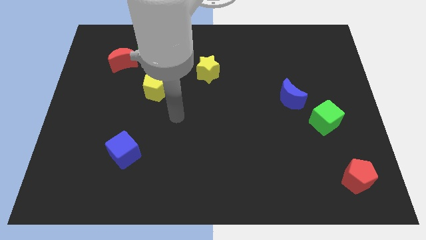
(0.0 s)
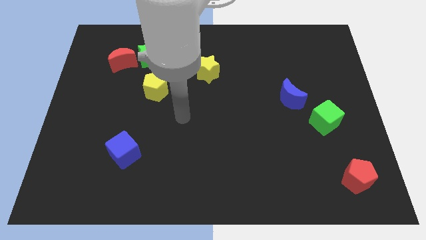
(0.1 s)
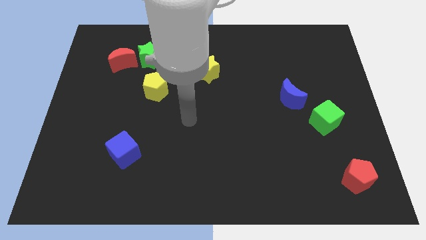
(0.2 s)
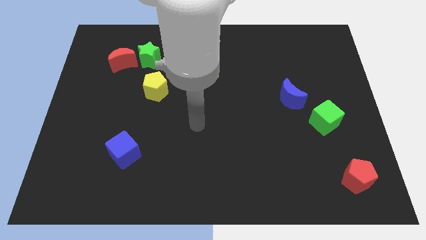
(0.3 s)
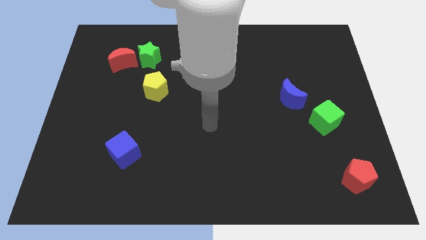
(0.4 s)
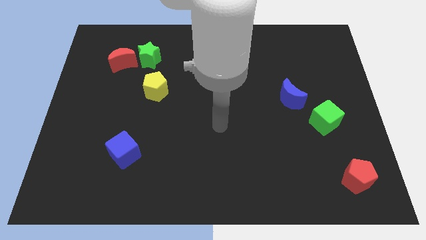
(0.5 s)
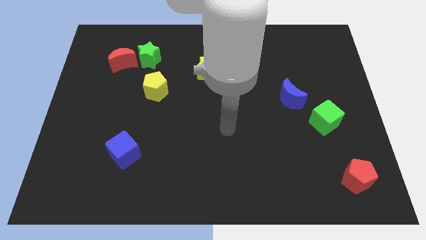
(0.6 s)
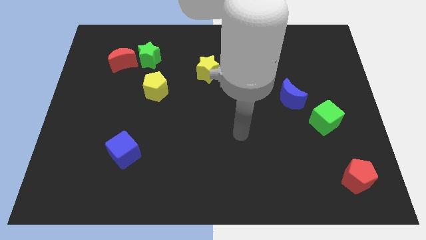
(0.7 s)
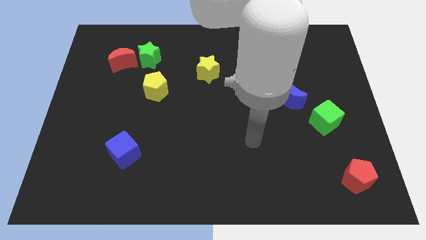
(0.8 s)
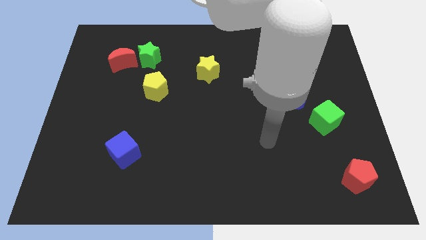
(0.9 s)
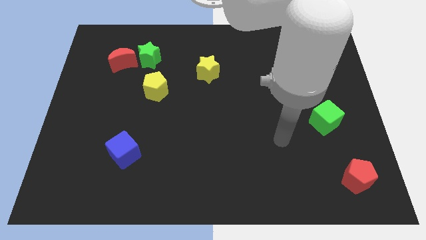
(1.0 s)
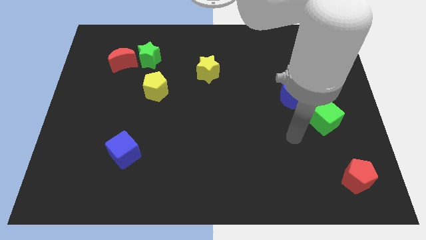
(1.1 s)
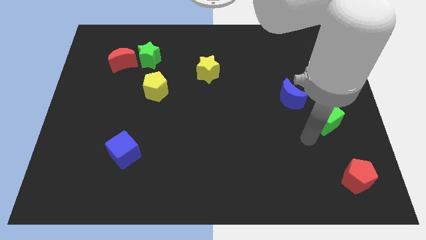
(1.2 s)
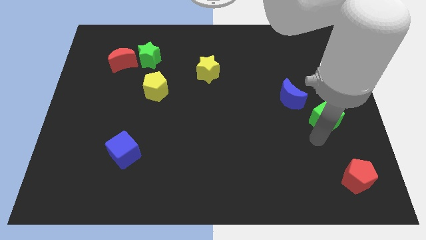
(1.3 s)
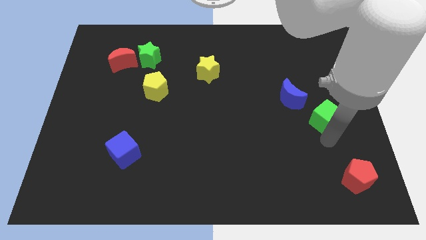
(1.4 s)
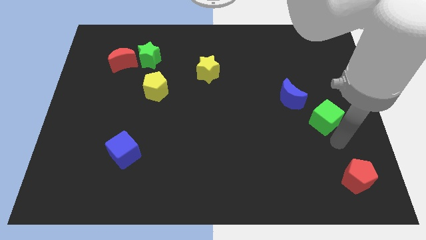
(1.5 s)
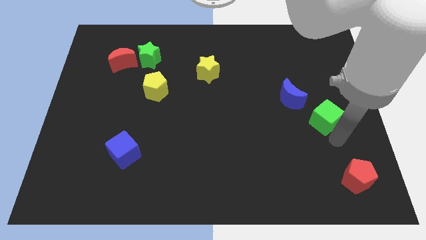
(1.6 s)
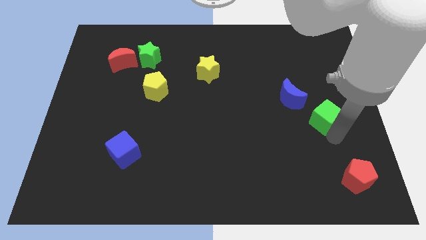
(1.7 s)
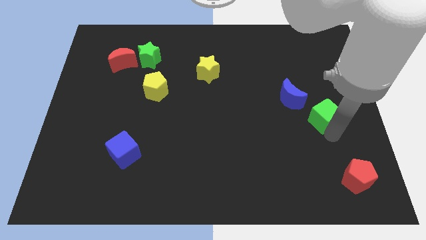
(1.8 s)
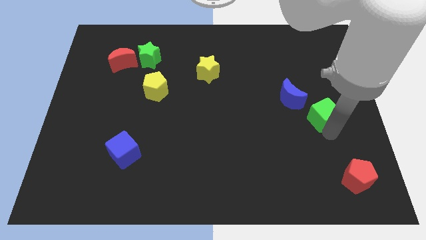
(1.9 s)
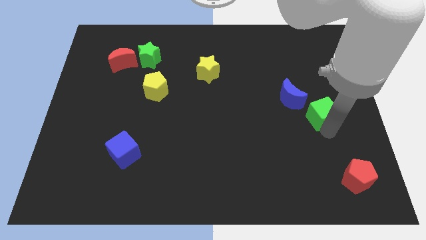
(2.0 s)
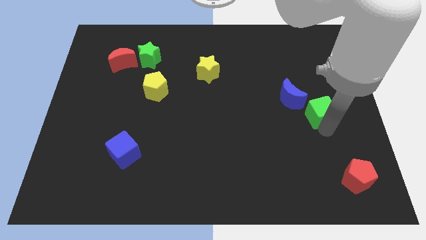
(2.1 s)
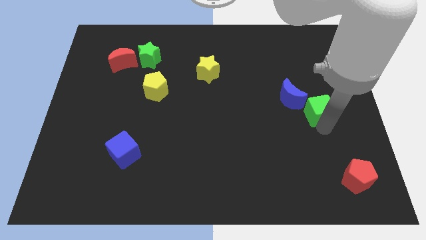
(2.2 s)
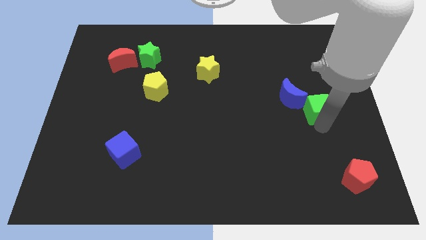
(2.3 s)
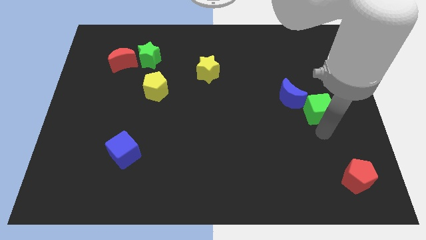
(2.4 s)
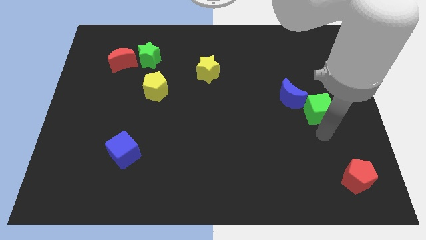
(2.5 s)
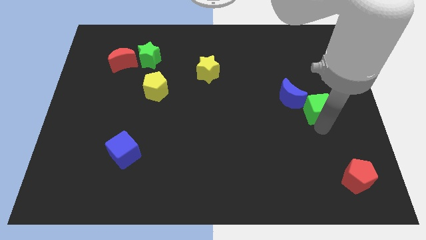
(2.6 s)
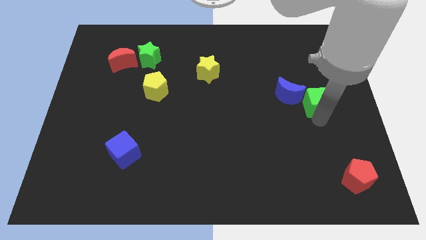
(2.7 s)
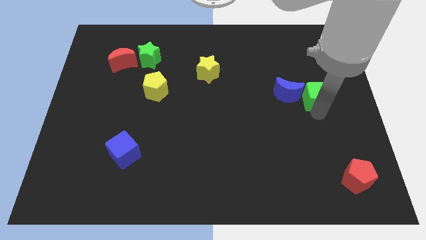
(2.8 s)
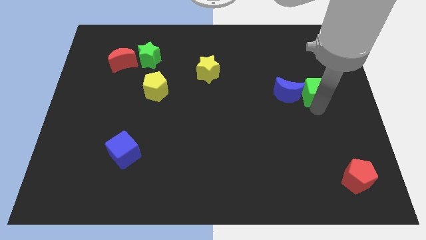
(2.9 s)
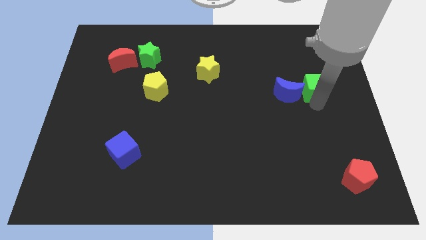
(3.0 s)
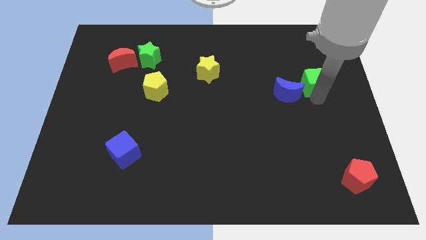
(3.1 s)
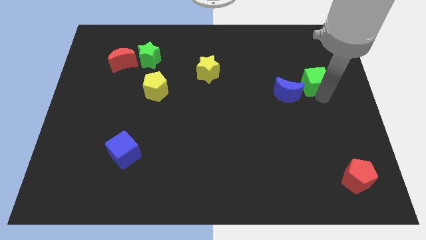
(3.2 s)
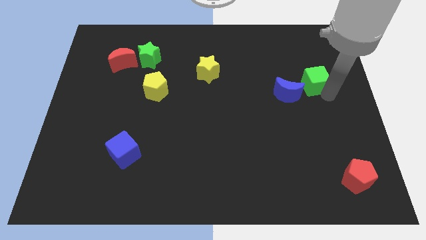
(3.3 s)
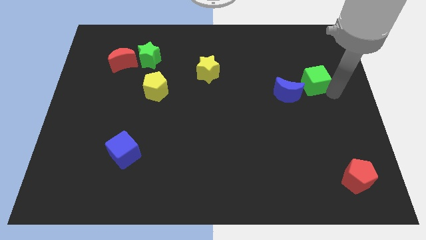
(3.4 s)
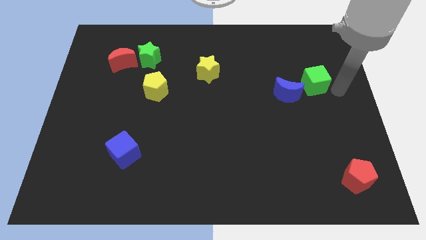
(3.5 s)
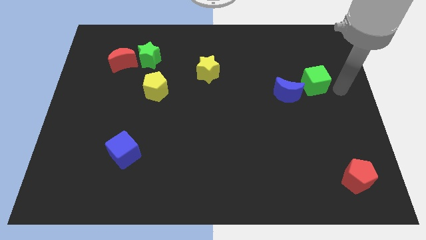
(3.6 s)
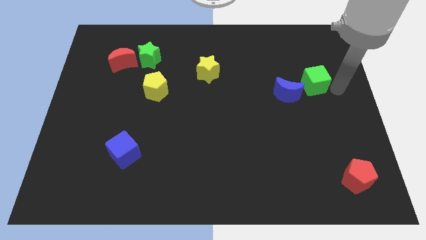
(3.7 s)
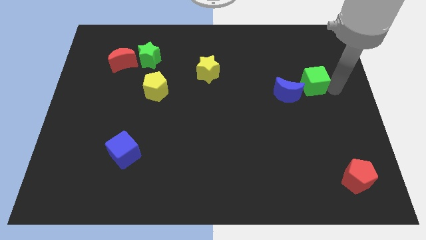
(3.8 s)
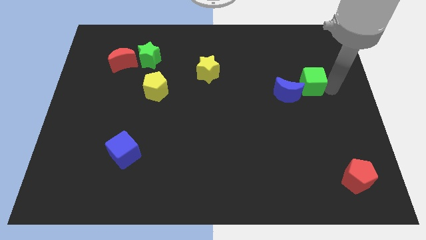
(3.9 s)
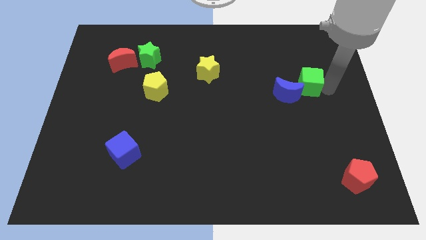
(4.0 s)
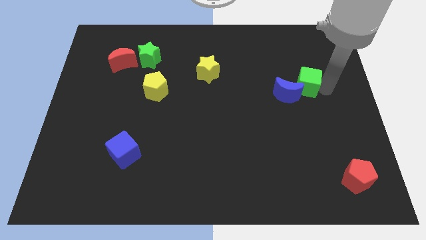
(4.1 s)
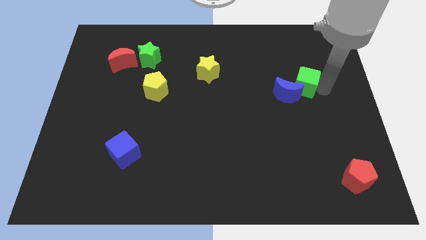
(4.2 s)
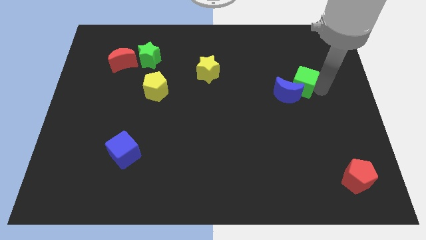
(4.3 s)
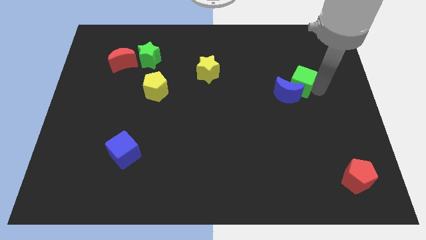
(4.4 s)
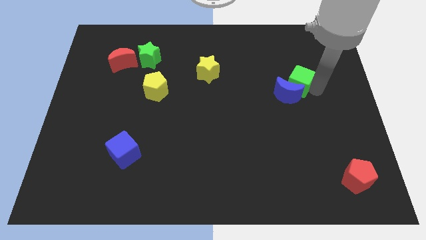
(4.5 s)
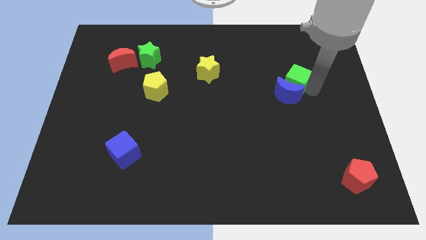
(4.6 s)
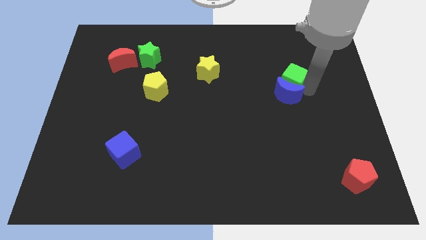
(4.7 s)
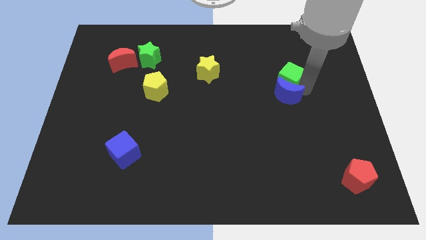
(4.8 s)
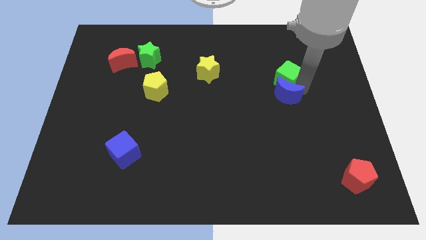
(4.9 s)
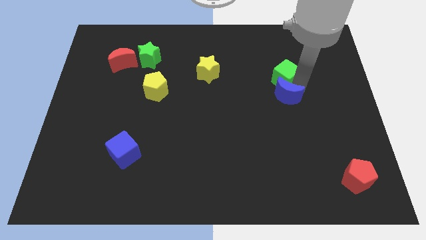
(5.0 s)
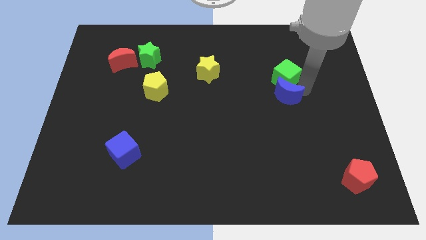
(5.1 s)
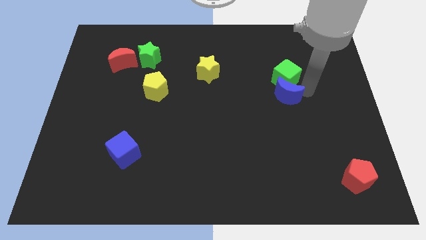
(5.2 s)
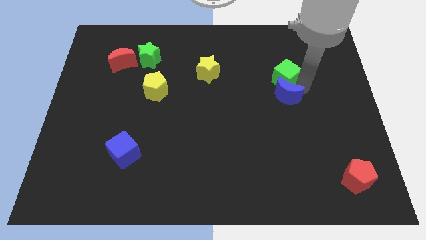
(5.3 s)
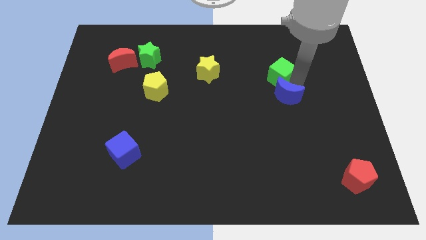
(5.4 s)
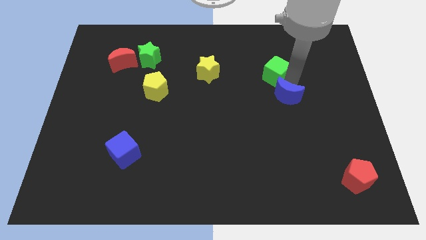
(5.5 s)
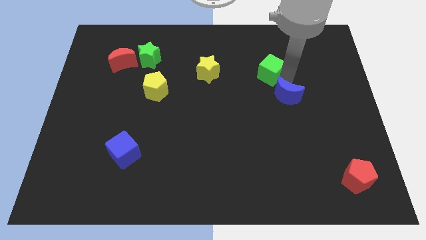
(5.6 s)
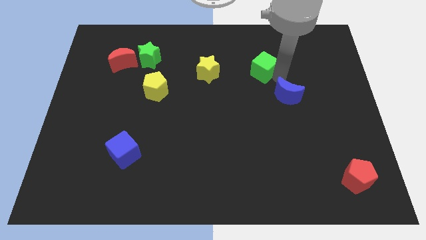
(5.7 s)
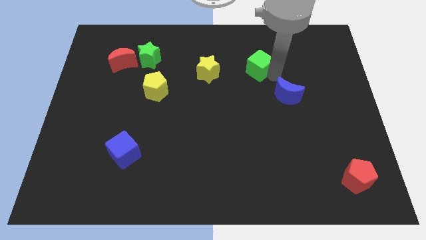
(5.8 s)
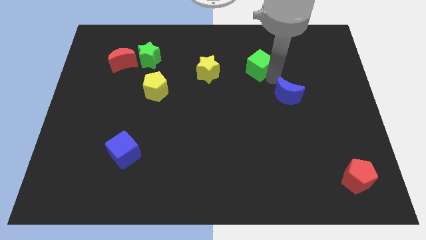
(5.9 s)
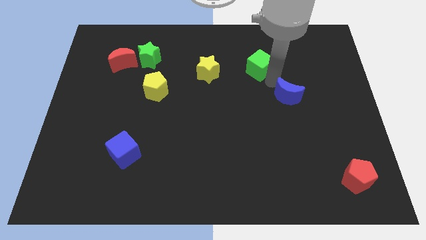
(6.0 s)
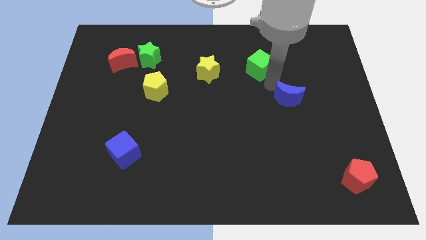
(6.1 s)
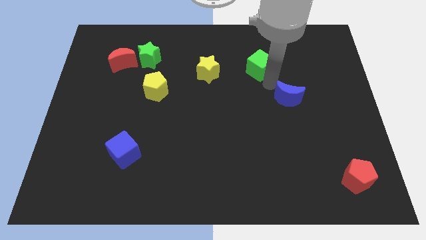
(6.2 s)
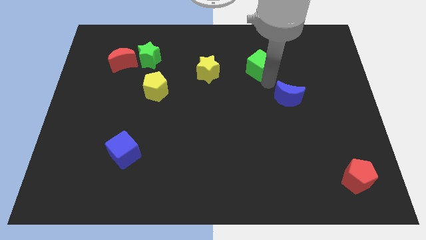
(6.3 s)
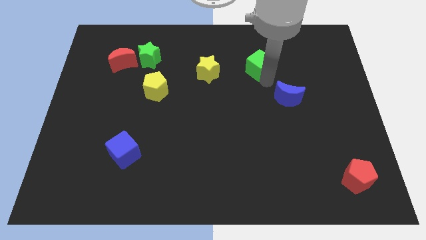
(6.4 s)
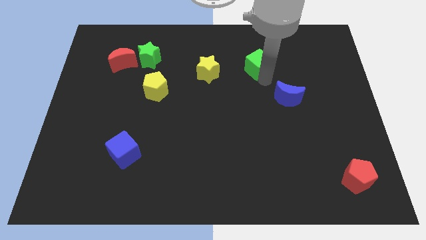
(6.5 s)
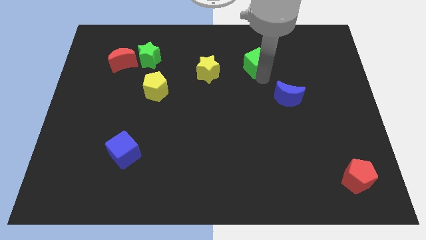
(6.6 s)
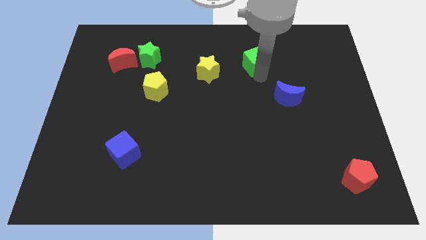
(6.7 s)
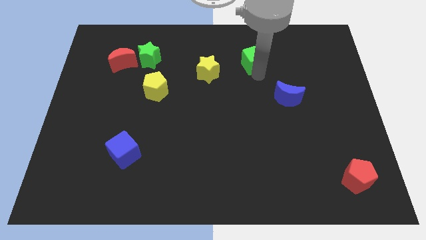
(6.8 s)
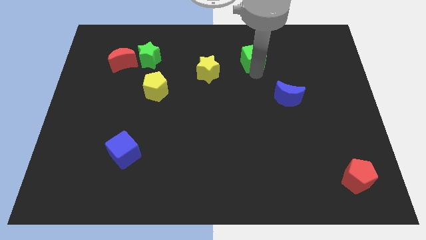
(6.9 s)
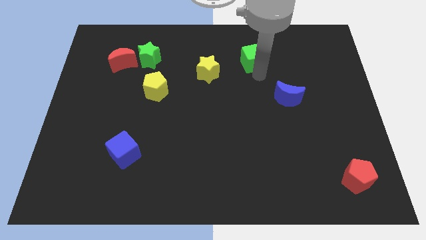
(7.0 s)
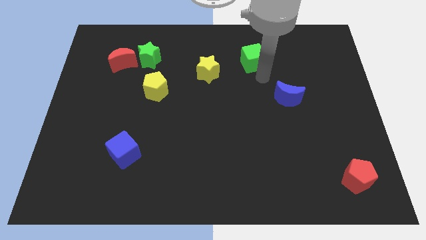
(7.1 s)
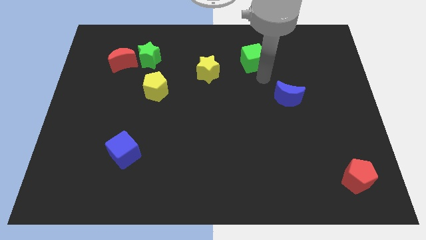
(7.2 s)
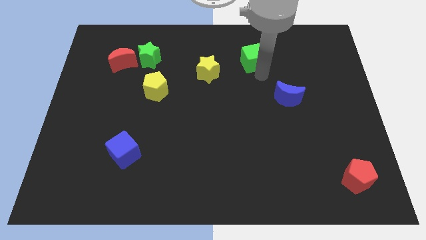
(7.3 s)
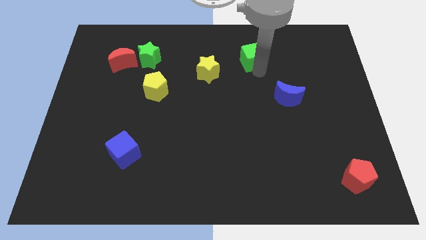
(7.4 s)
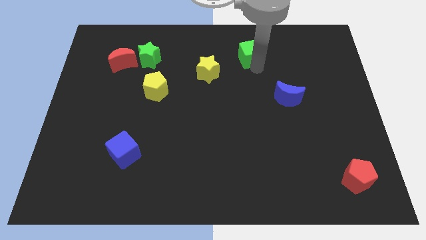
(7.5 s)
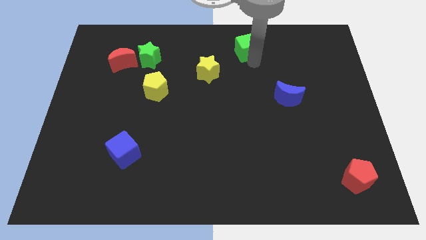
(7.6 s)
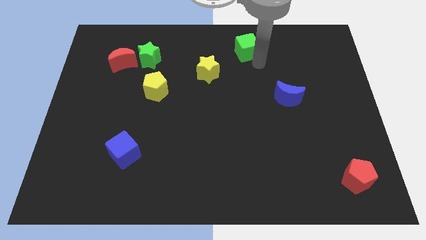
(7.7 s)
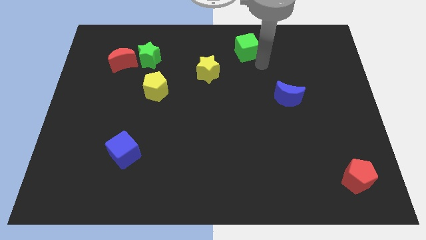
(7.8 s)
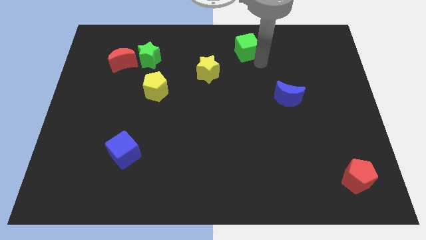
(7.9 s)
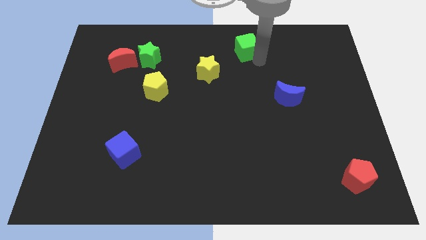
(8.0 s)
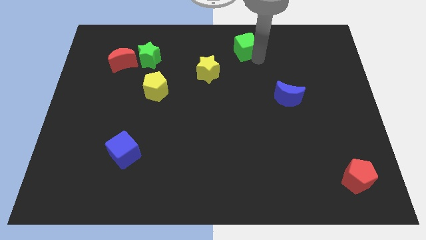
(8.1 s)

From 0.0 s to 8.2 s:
push the green cube to the top
